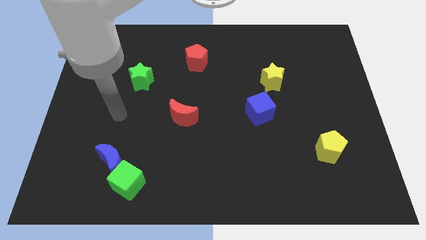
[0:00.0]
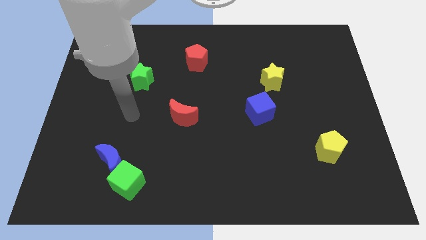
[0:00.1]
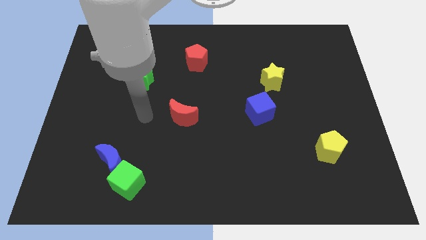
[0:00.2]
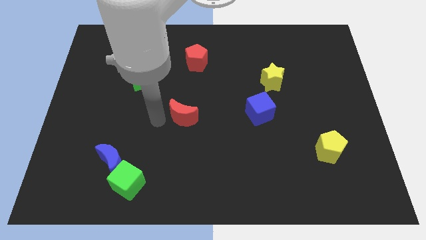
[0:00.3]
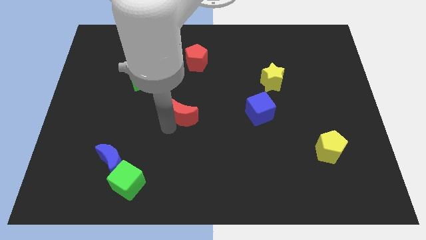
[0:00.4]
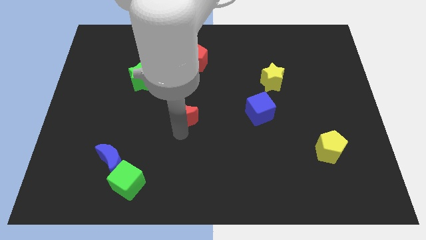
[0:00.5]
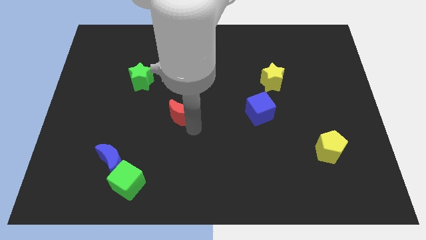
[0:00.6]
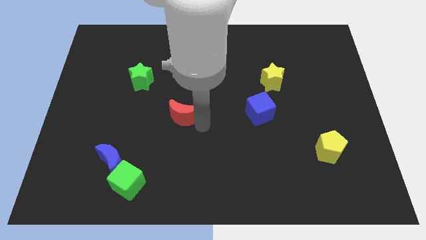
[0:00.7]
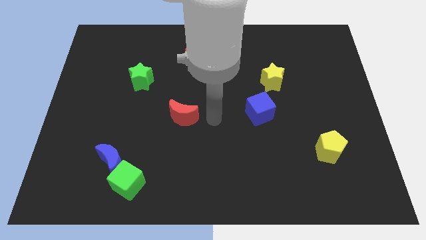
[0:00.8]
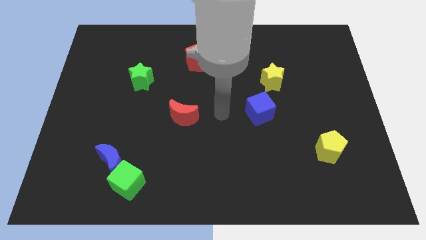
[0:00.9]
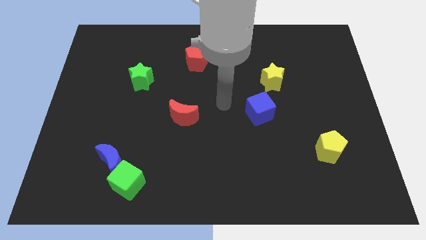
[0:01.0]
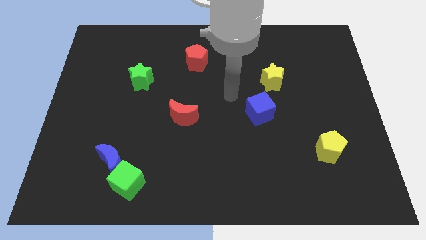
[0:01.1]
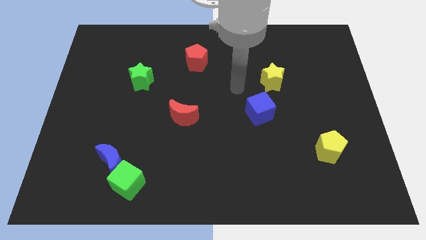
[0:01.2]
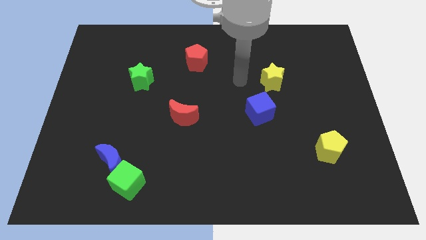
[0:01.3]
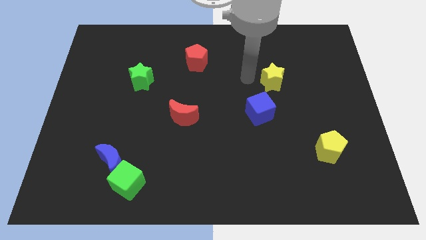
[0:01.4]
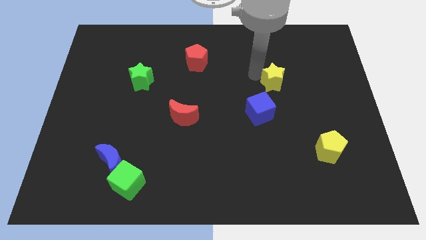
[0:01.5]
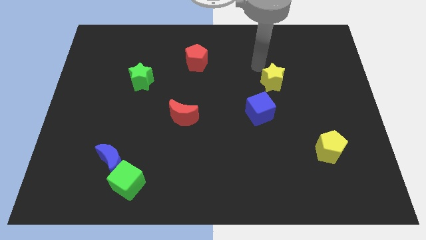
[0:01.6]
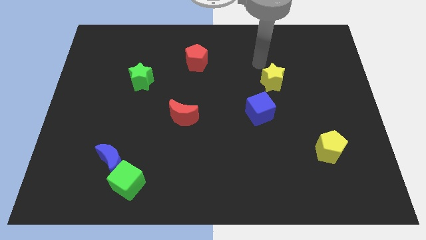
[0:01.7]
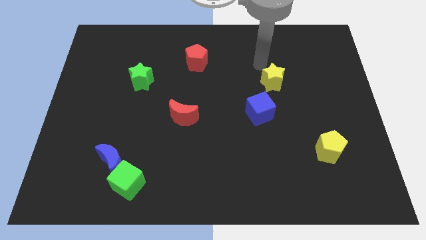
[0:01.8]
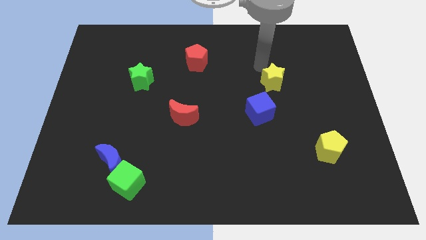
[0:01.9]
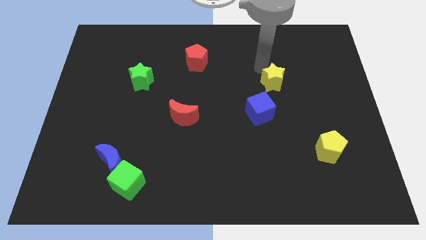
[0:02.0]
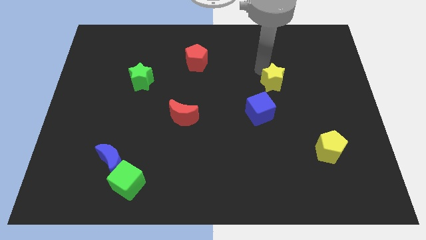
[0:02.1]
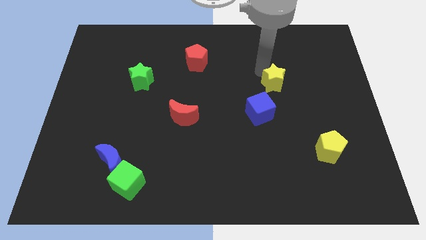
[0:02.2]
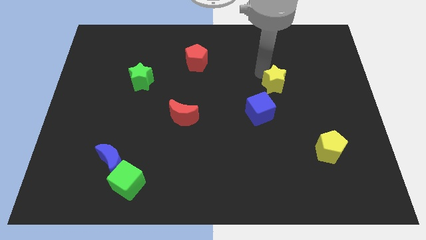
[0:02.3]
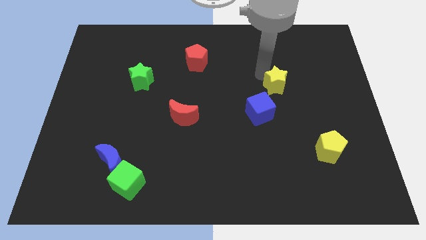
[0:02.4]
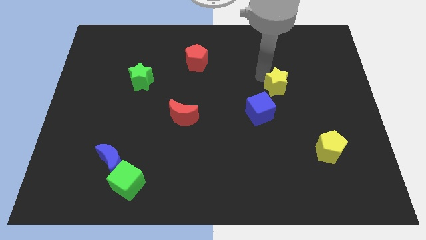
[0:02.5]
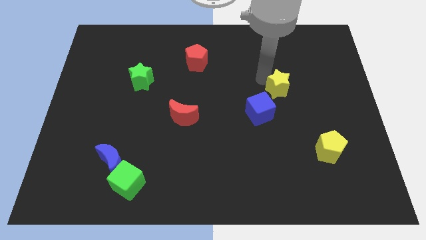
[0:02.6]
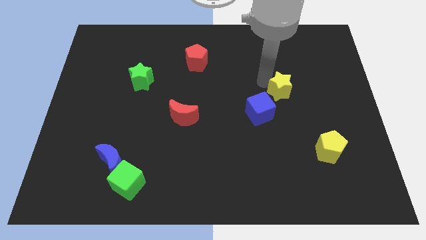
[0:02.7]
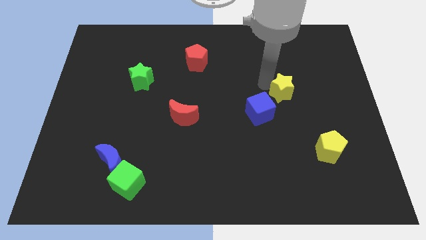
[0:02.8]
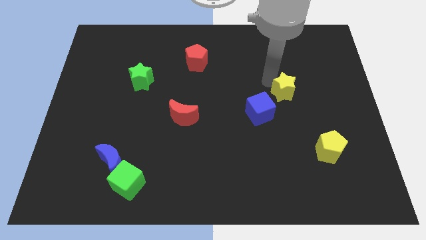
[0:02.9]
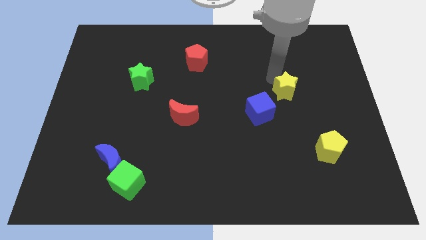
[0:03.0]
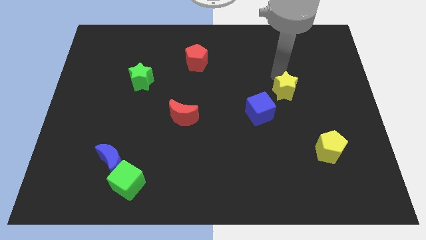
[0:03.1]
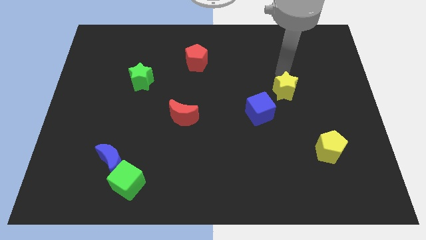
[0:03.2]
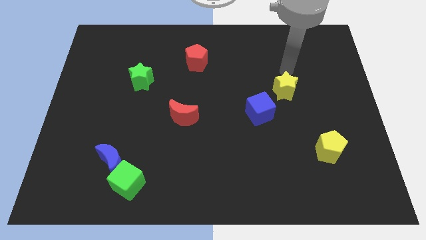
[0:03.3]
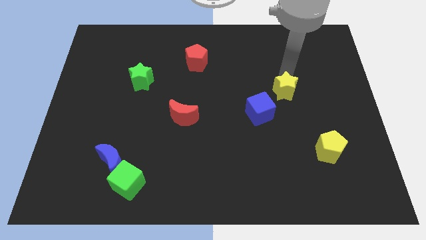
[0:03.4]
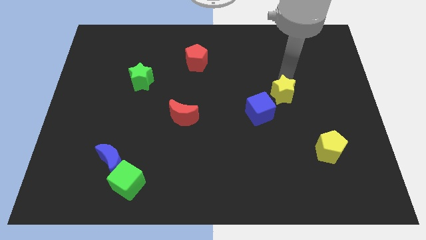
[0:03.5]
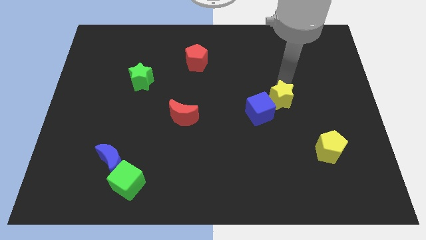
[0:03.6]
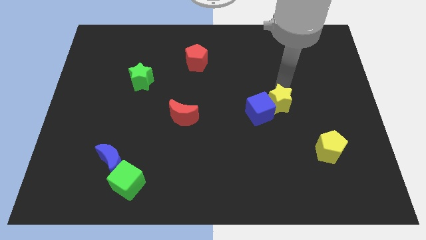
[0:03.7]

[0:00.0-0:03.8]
slightly move the yellow star down

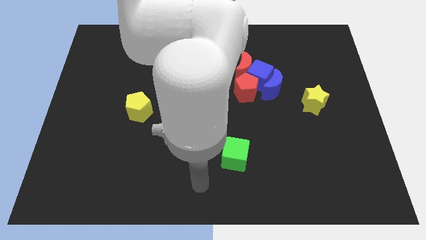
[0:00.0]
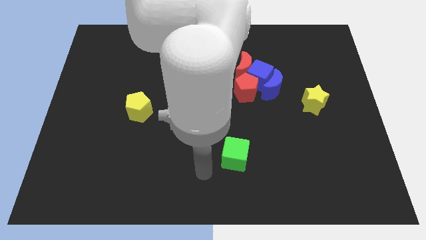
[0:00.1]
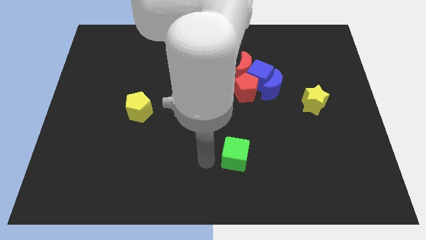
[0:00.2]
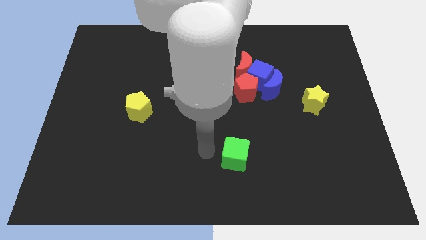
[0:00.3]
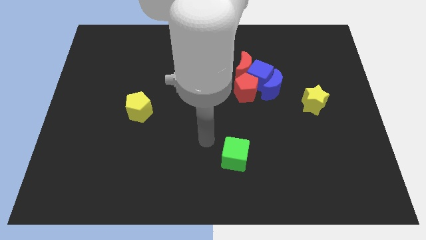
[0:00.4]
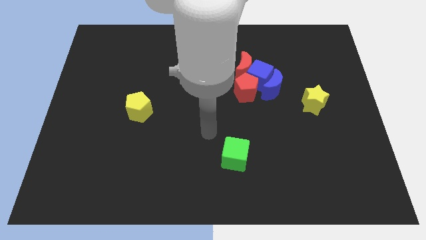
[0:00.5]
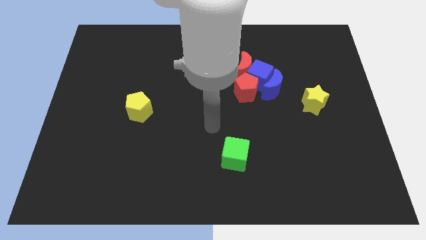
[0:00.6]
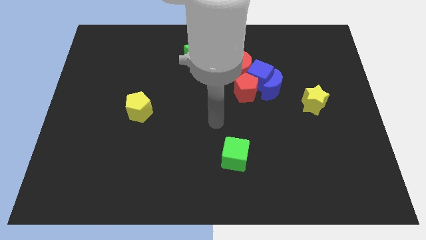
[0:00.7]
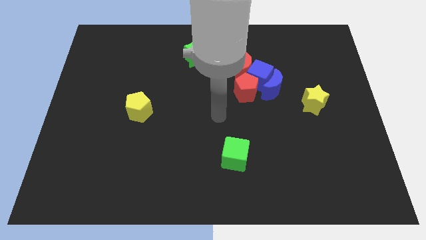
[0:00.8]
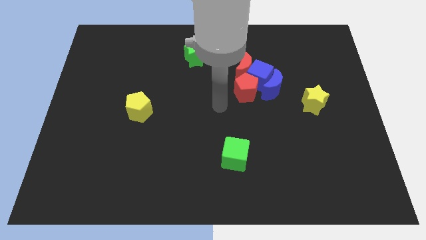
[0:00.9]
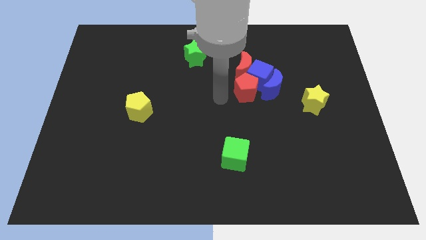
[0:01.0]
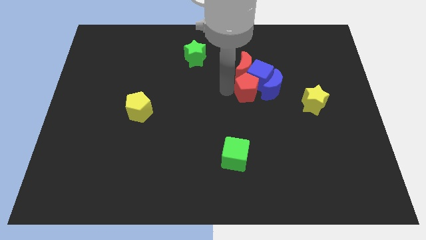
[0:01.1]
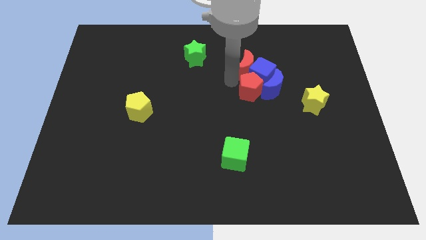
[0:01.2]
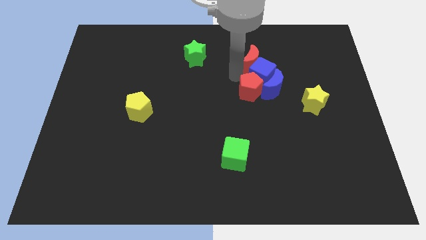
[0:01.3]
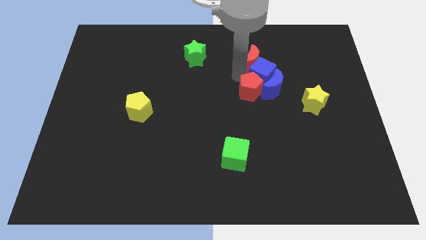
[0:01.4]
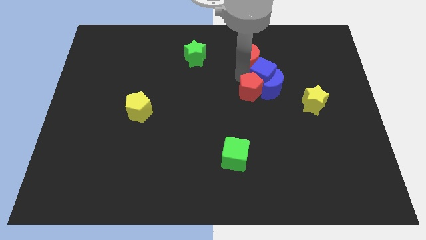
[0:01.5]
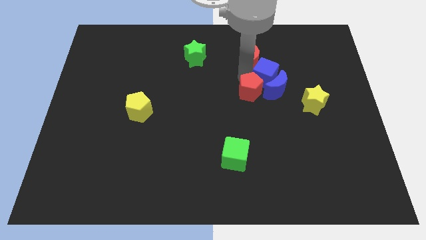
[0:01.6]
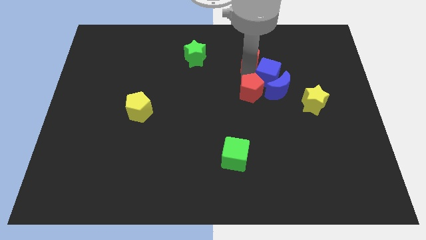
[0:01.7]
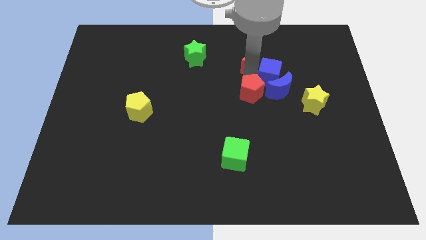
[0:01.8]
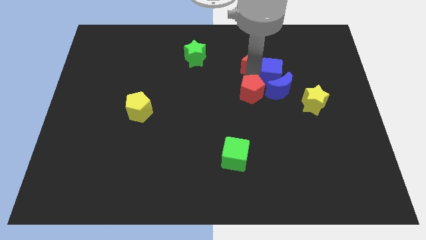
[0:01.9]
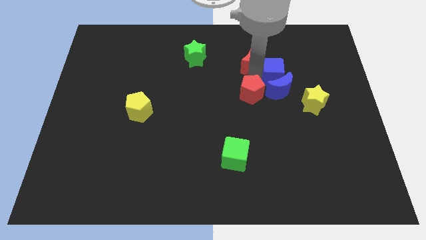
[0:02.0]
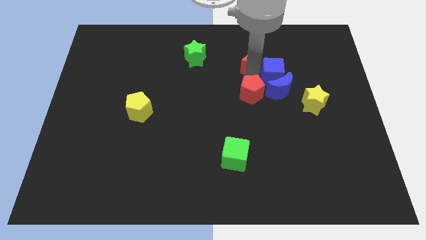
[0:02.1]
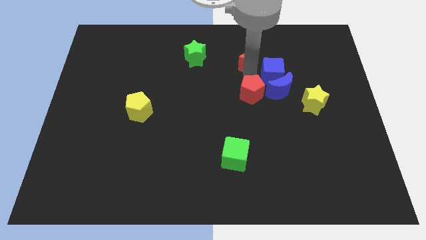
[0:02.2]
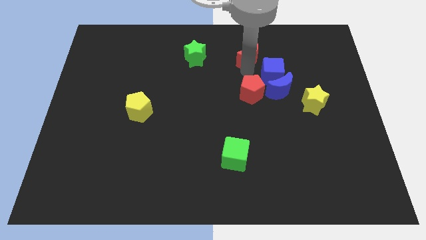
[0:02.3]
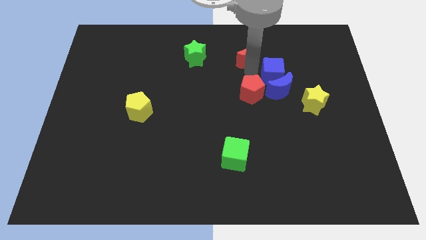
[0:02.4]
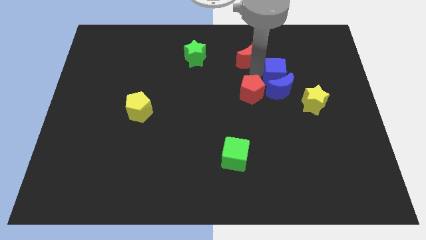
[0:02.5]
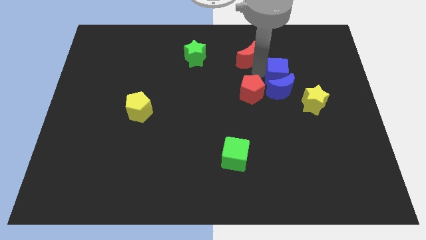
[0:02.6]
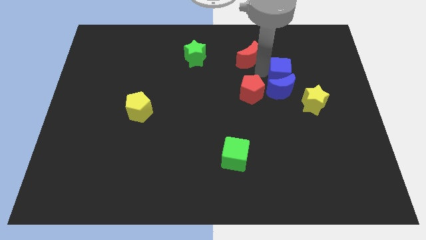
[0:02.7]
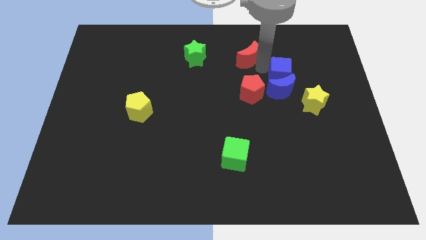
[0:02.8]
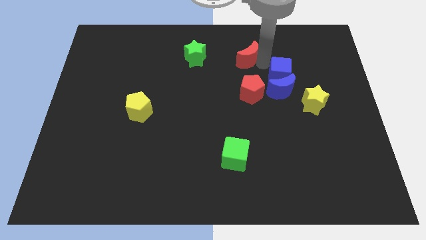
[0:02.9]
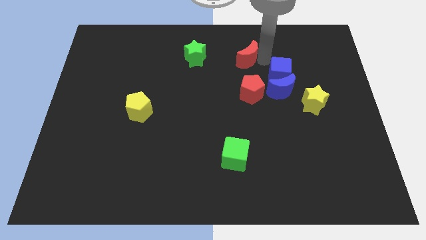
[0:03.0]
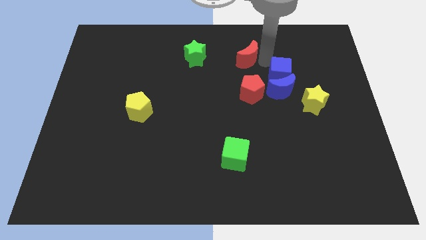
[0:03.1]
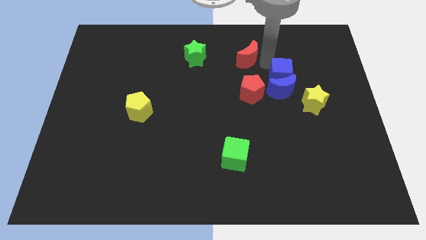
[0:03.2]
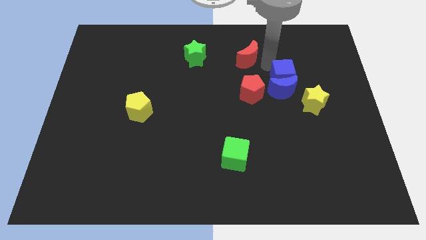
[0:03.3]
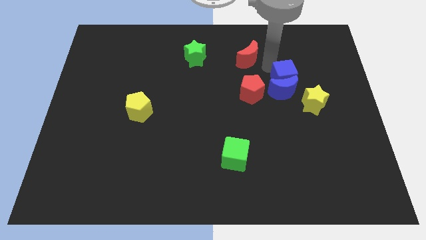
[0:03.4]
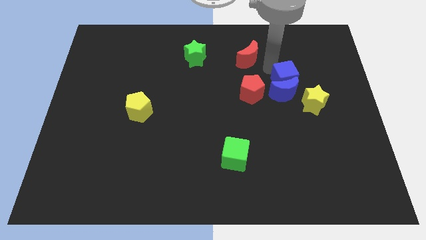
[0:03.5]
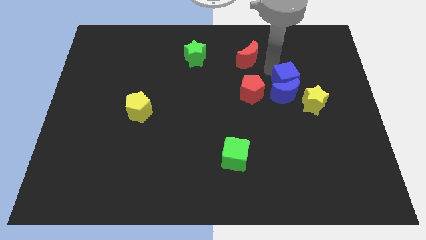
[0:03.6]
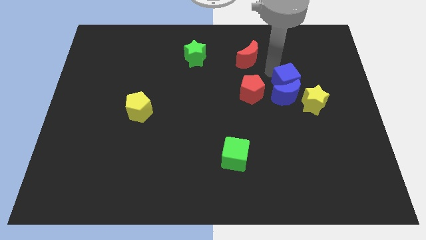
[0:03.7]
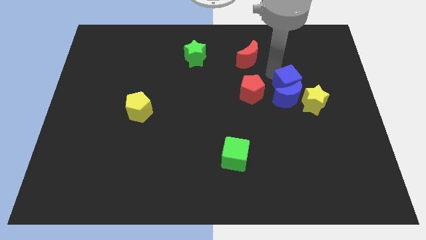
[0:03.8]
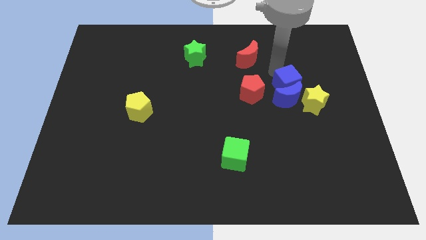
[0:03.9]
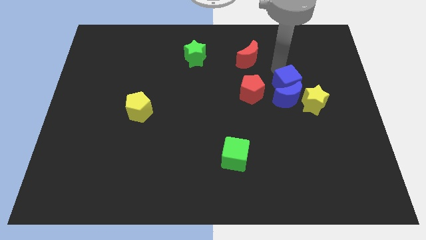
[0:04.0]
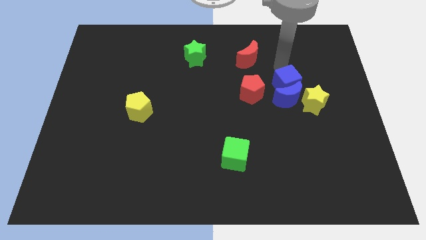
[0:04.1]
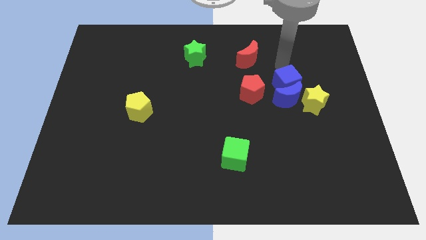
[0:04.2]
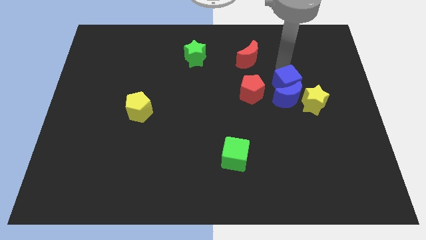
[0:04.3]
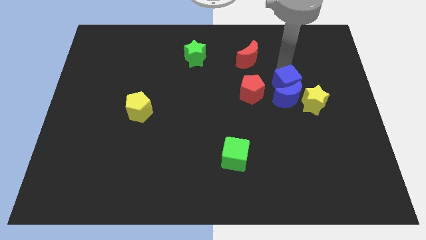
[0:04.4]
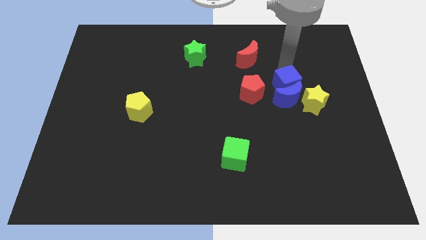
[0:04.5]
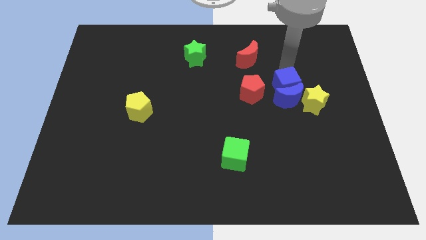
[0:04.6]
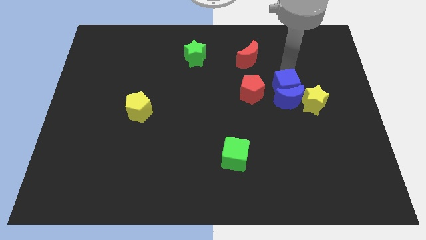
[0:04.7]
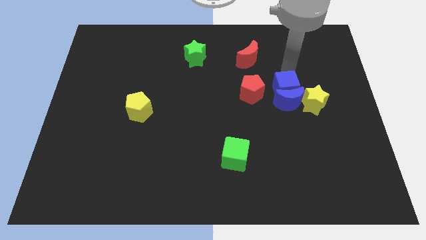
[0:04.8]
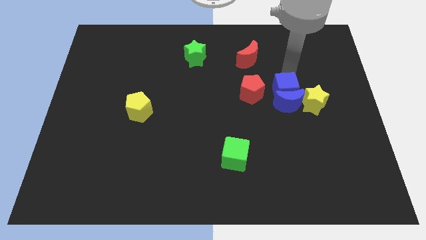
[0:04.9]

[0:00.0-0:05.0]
push the blue cube a bit down and to the right diagonally
